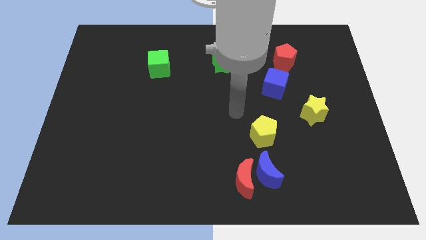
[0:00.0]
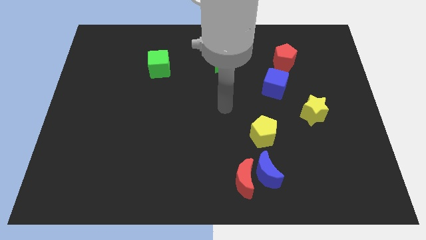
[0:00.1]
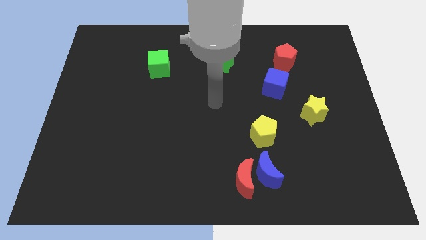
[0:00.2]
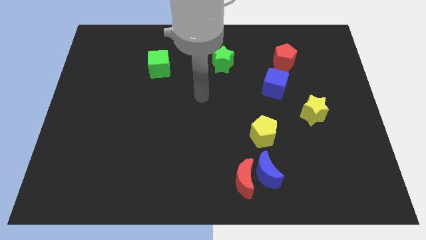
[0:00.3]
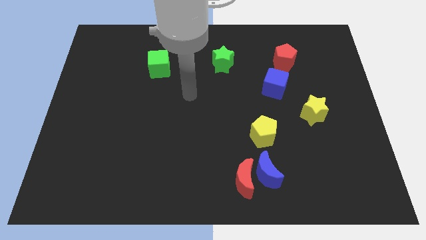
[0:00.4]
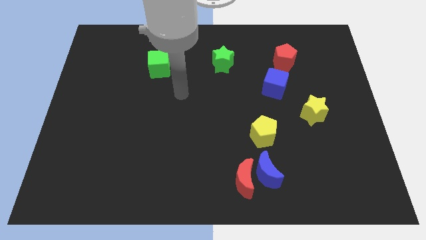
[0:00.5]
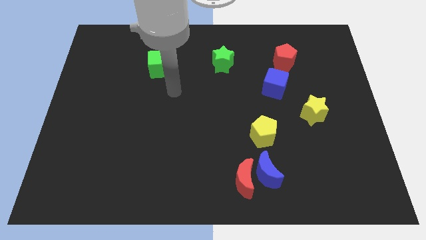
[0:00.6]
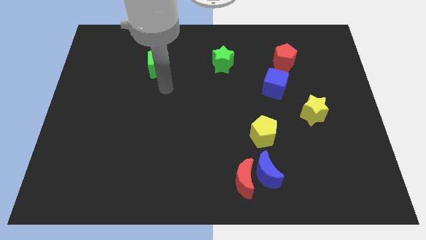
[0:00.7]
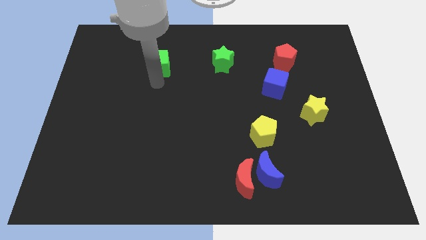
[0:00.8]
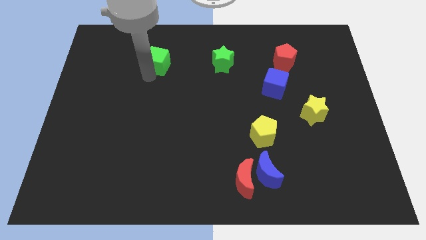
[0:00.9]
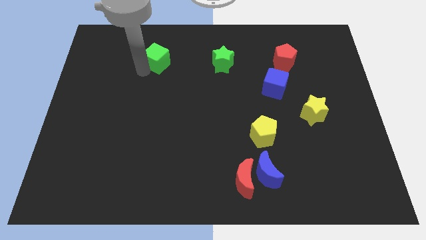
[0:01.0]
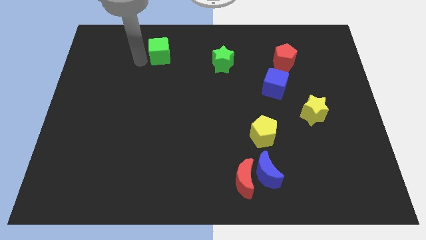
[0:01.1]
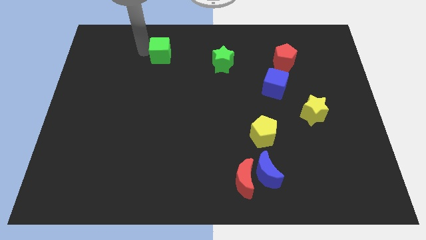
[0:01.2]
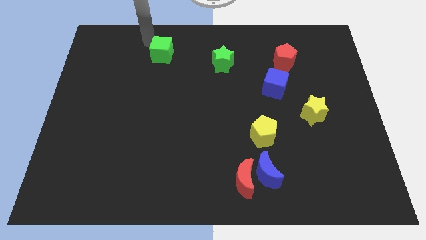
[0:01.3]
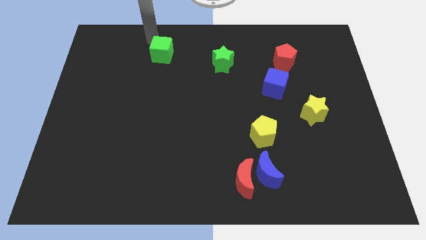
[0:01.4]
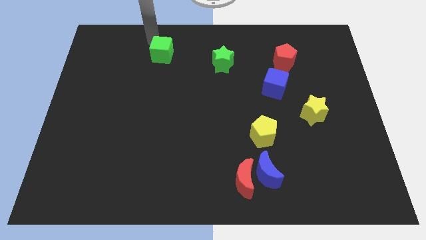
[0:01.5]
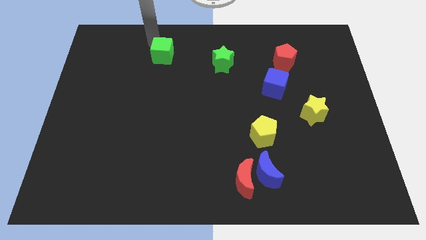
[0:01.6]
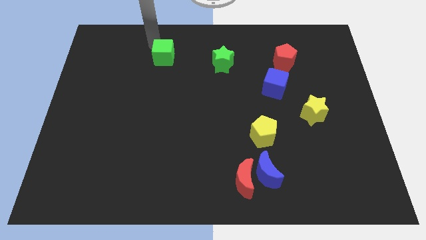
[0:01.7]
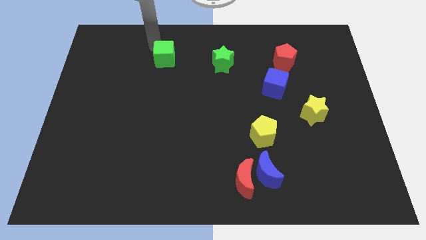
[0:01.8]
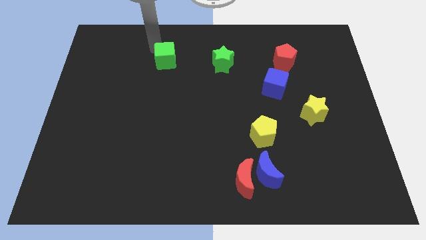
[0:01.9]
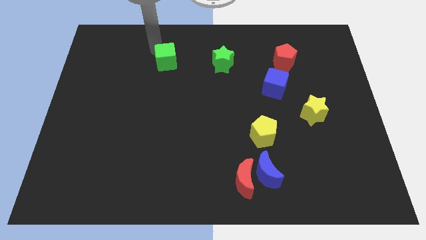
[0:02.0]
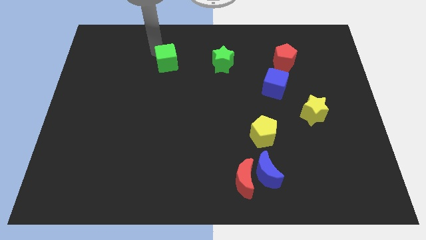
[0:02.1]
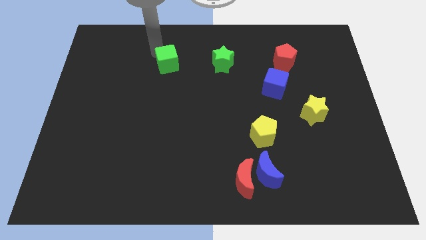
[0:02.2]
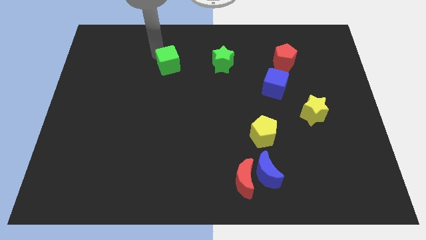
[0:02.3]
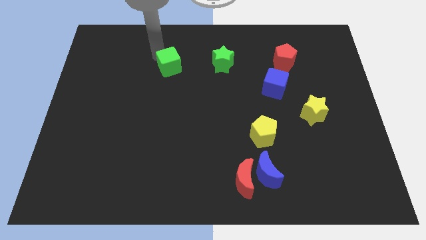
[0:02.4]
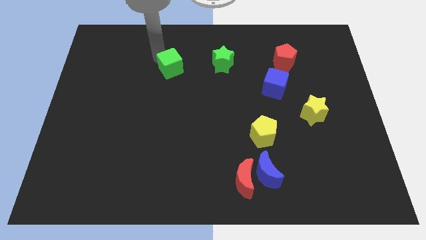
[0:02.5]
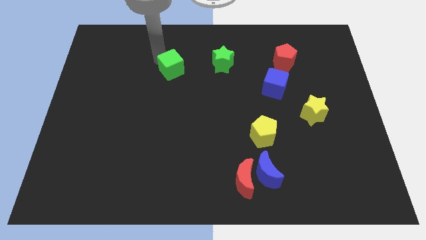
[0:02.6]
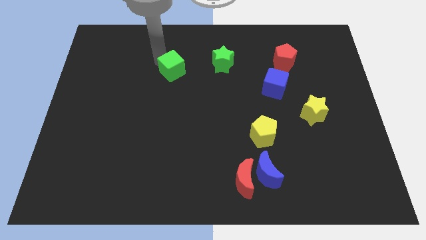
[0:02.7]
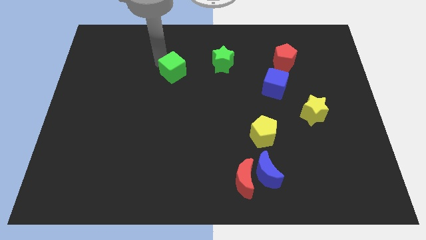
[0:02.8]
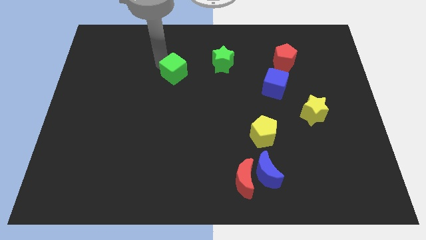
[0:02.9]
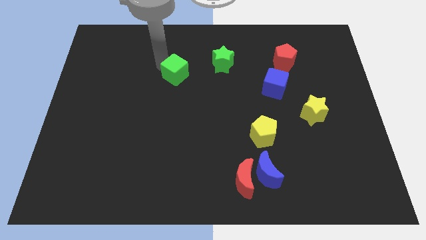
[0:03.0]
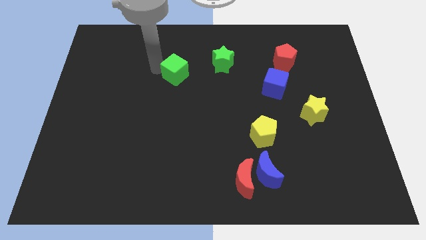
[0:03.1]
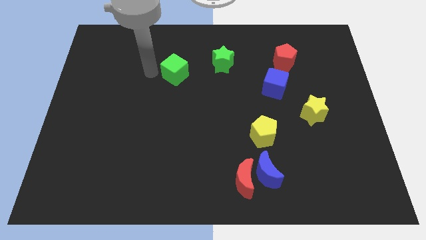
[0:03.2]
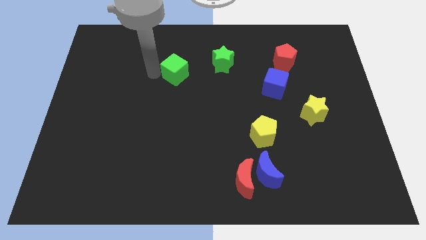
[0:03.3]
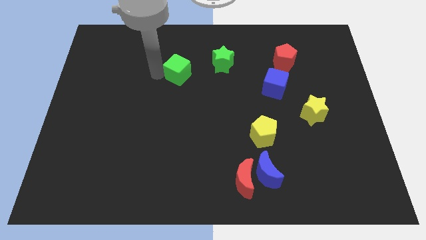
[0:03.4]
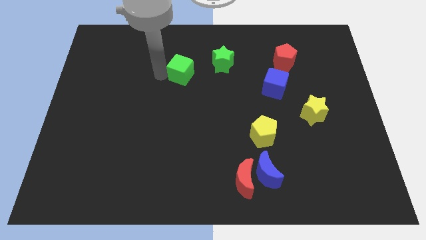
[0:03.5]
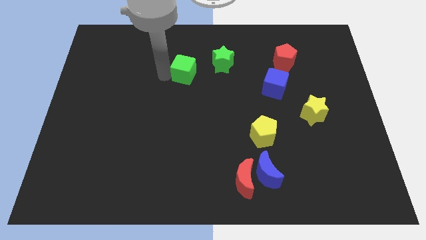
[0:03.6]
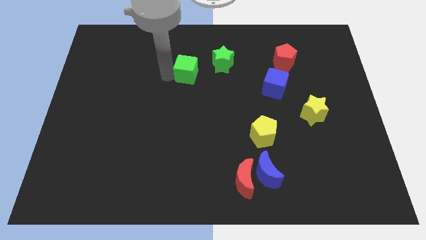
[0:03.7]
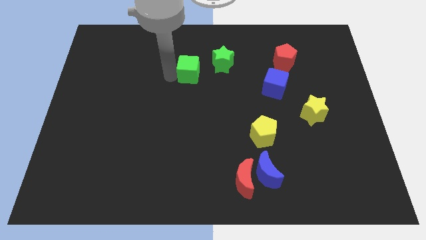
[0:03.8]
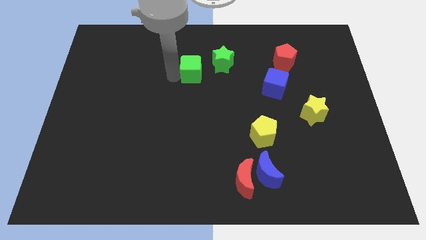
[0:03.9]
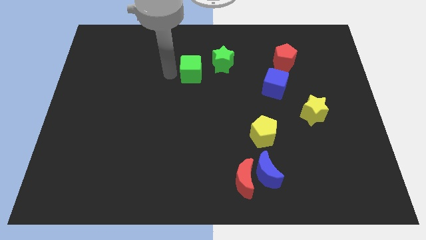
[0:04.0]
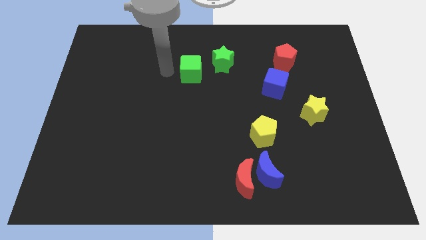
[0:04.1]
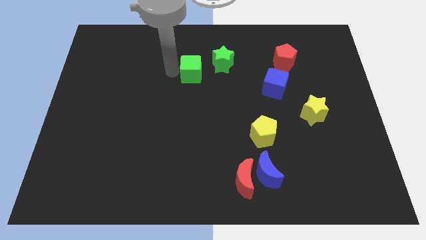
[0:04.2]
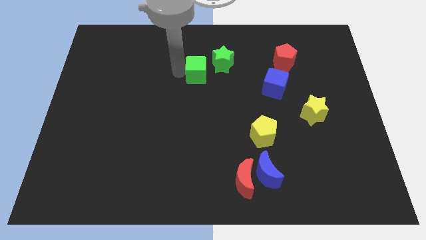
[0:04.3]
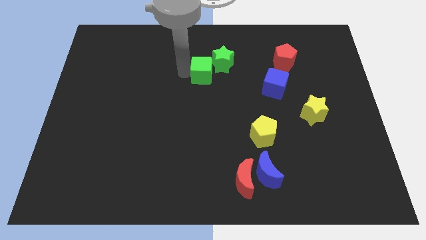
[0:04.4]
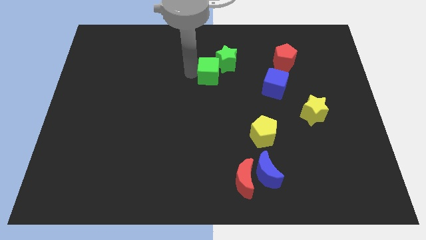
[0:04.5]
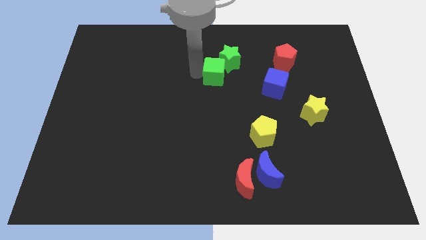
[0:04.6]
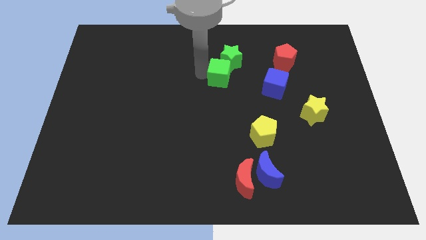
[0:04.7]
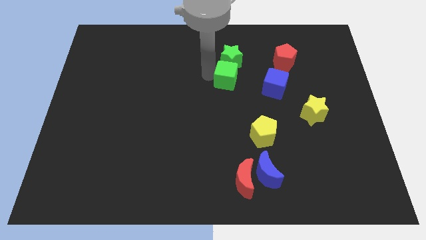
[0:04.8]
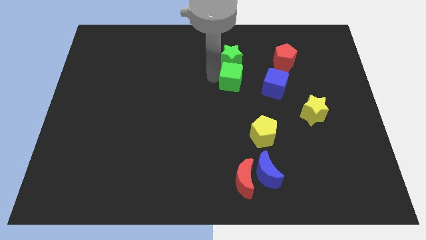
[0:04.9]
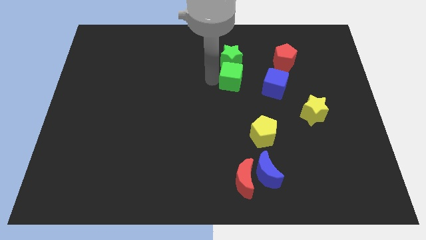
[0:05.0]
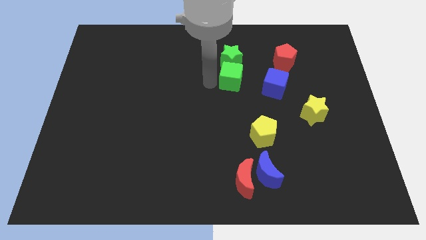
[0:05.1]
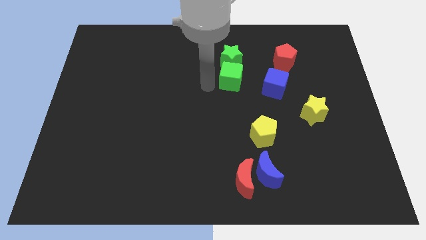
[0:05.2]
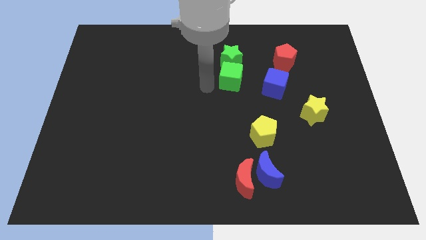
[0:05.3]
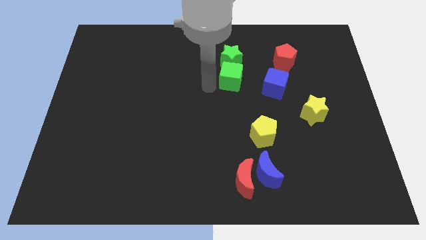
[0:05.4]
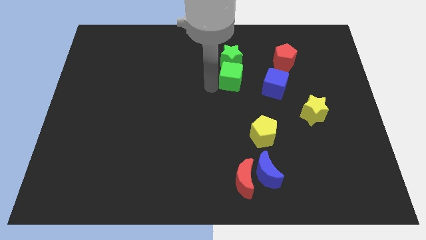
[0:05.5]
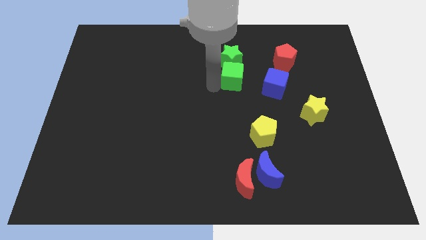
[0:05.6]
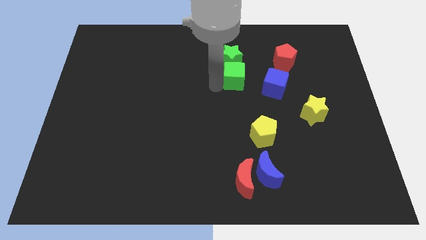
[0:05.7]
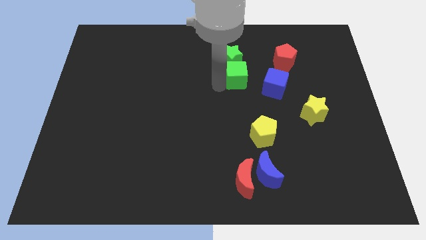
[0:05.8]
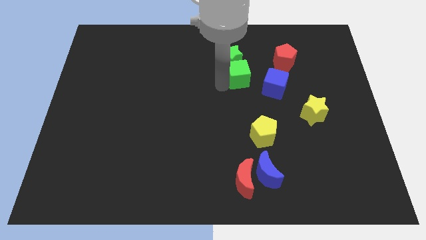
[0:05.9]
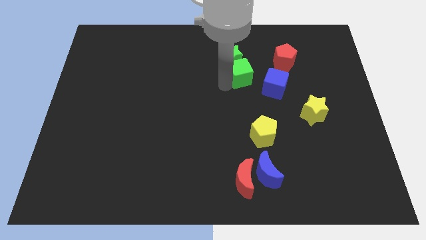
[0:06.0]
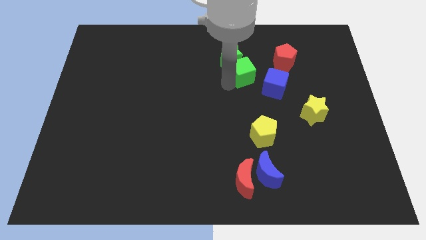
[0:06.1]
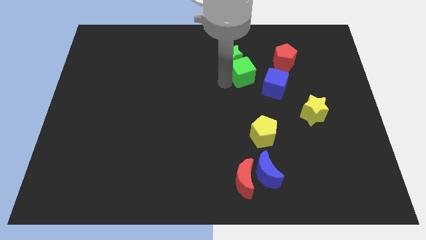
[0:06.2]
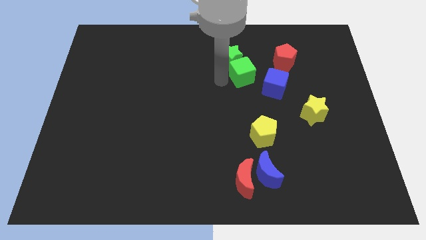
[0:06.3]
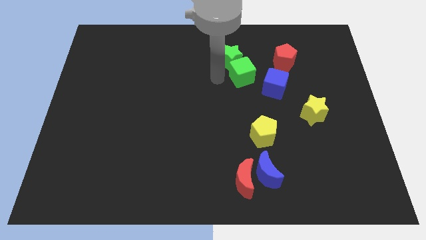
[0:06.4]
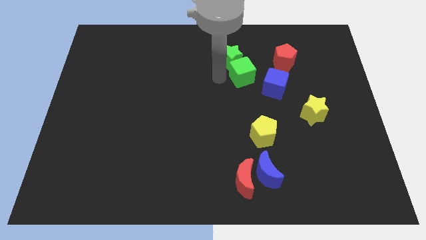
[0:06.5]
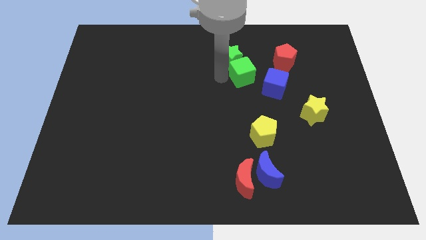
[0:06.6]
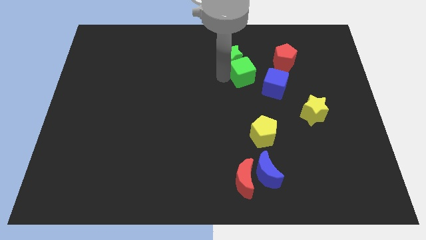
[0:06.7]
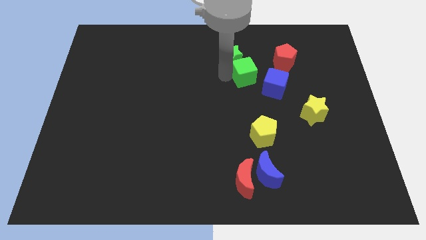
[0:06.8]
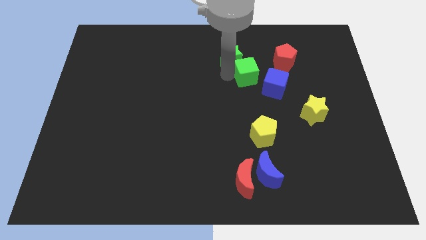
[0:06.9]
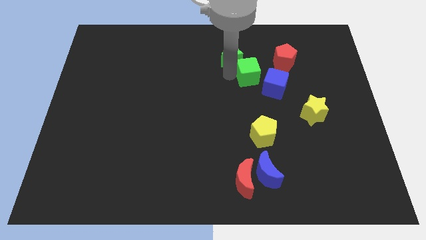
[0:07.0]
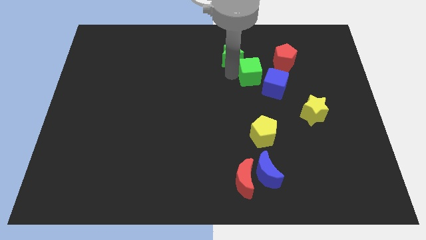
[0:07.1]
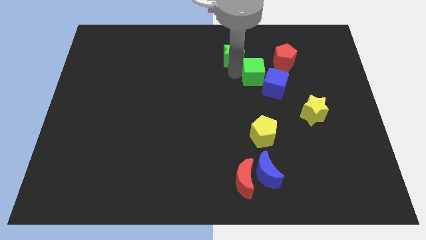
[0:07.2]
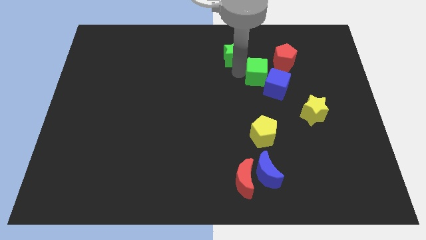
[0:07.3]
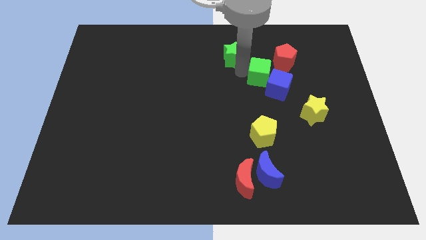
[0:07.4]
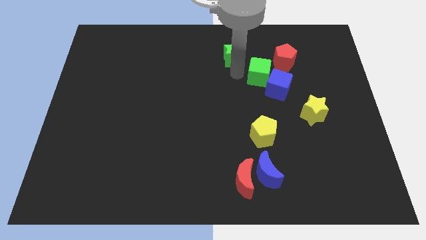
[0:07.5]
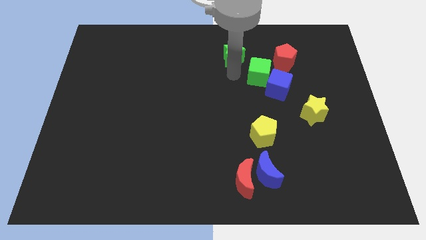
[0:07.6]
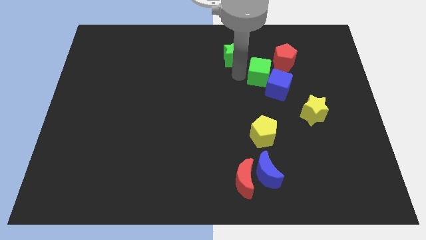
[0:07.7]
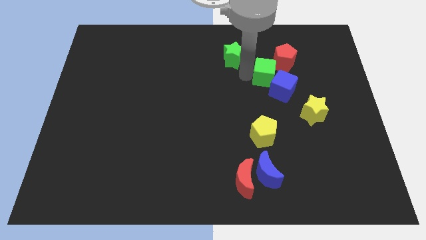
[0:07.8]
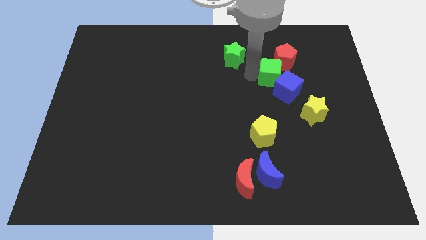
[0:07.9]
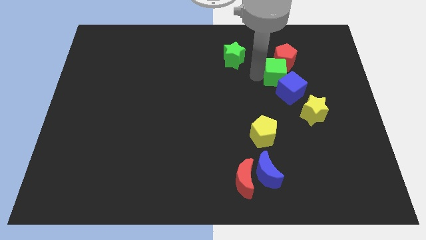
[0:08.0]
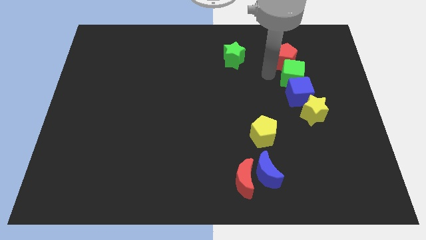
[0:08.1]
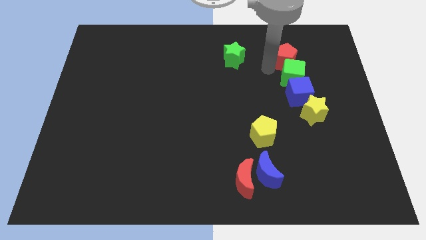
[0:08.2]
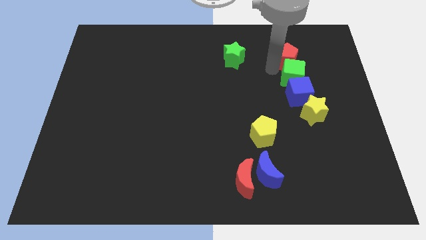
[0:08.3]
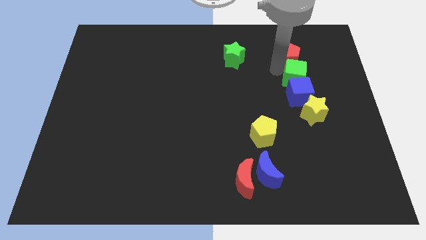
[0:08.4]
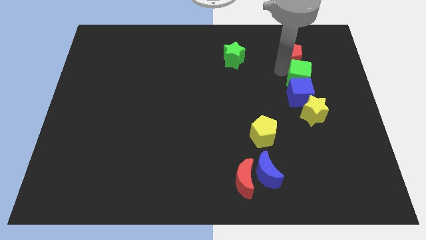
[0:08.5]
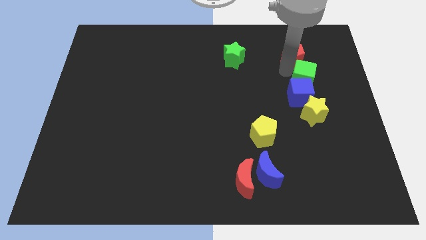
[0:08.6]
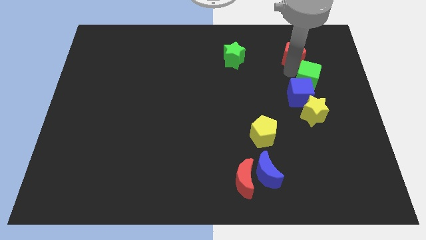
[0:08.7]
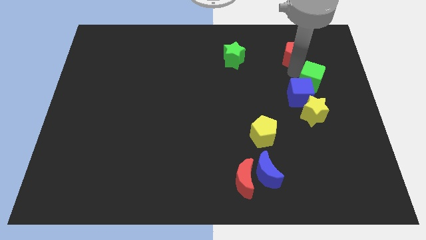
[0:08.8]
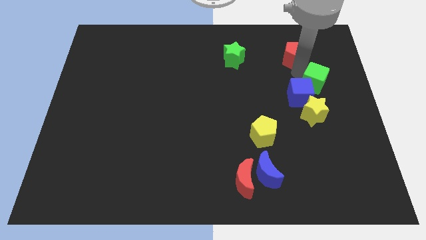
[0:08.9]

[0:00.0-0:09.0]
push the green cube to the right side of the blue cube
